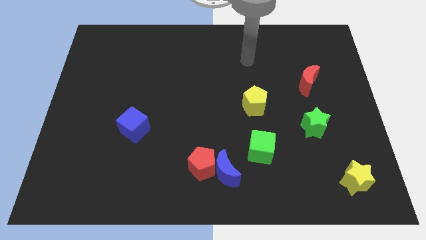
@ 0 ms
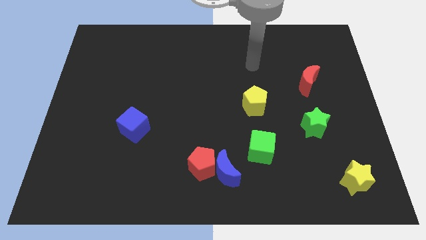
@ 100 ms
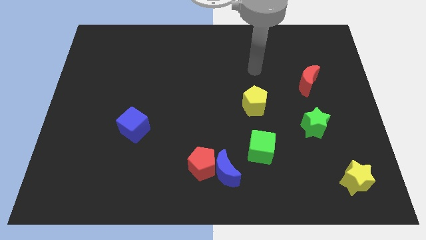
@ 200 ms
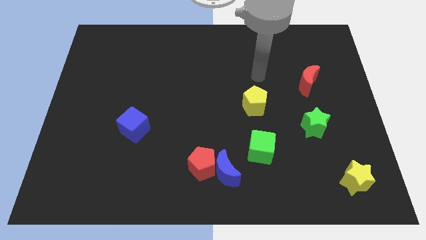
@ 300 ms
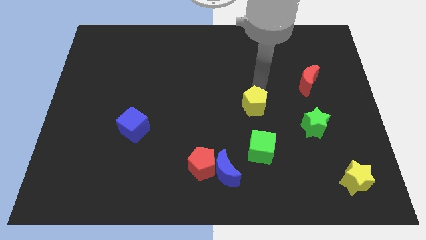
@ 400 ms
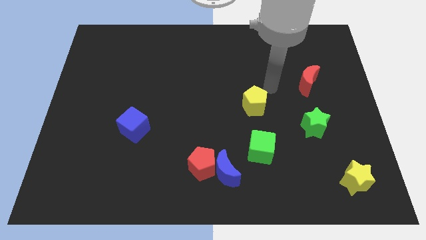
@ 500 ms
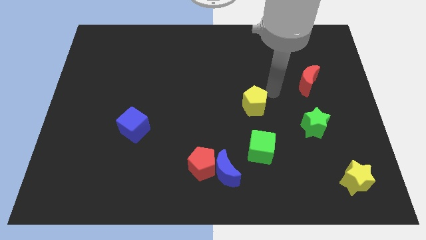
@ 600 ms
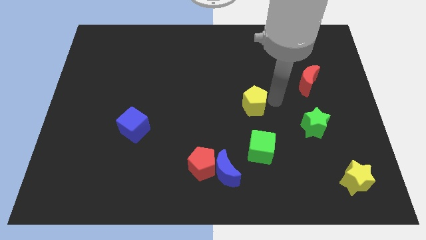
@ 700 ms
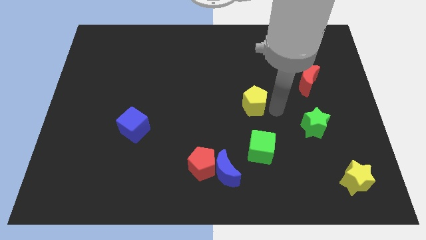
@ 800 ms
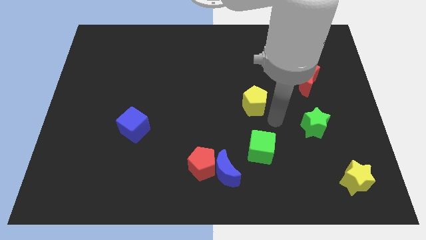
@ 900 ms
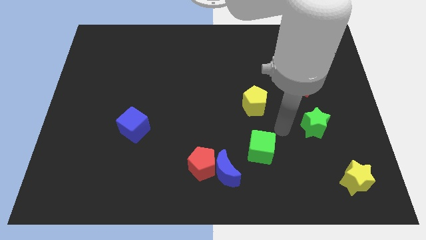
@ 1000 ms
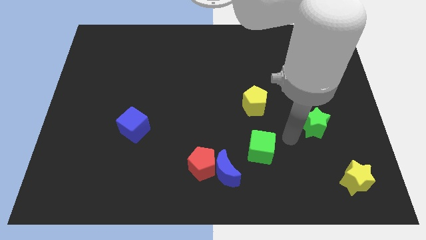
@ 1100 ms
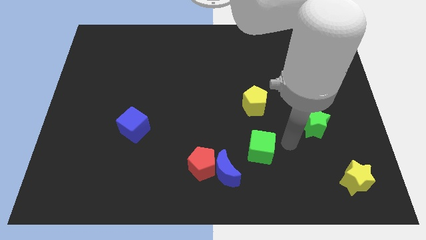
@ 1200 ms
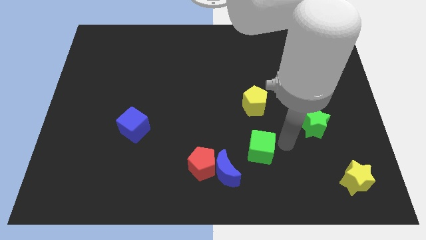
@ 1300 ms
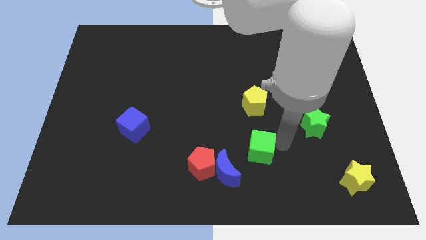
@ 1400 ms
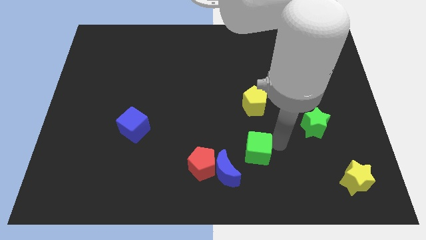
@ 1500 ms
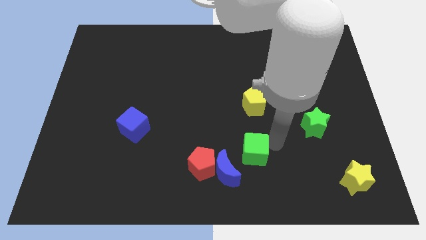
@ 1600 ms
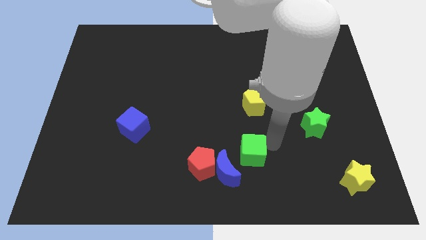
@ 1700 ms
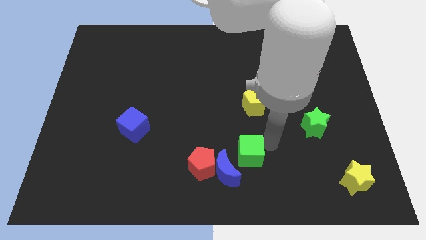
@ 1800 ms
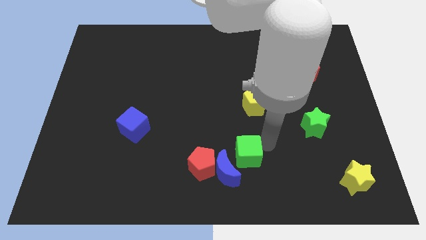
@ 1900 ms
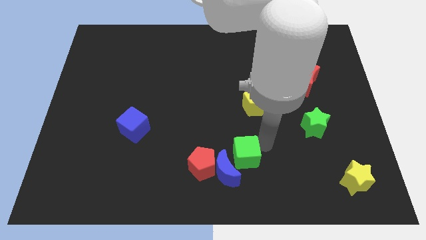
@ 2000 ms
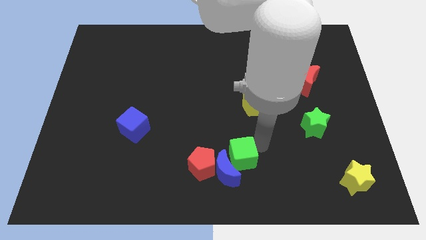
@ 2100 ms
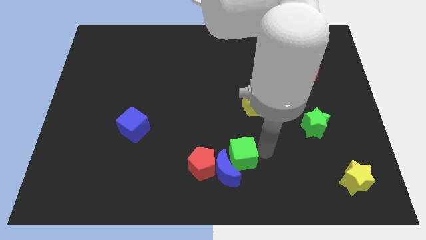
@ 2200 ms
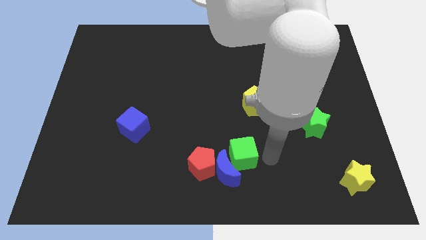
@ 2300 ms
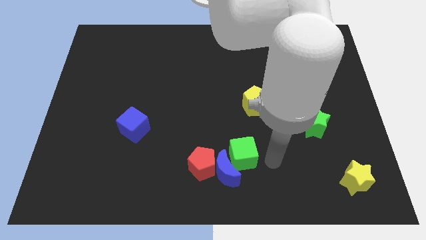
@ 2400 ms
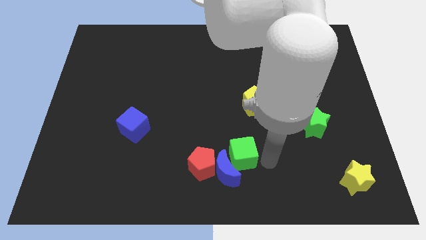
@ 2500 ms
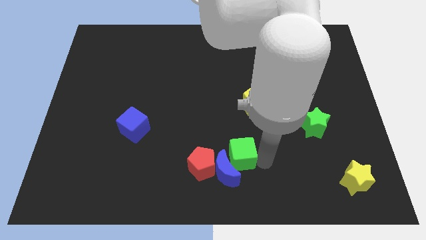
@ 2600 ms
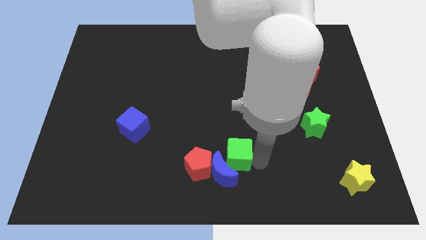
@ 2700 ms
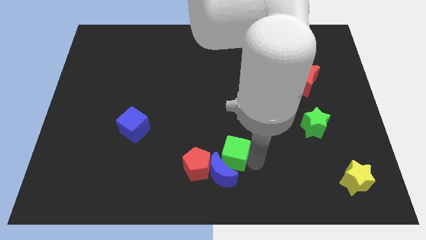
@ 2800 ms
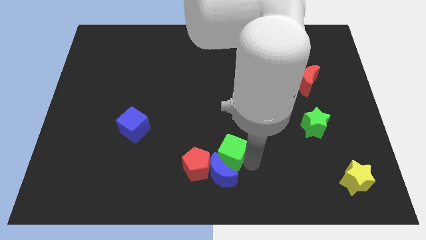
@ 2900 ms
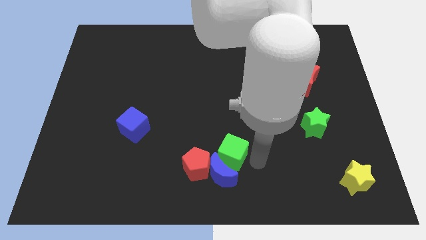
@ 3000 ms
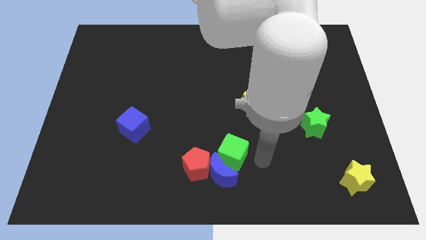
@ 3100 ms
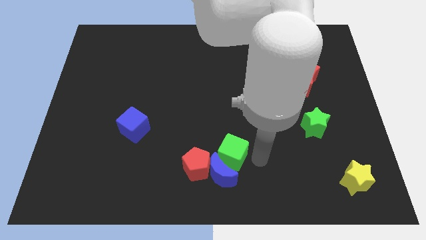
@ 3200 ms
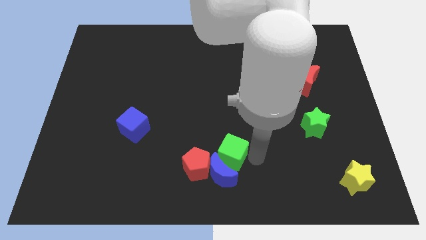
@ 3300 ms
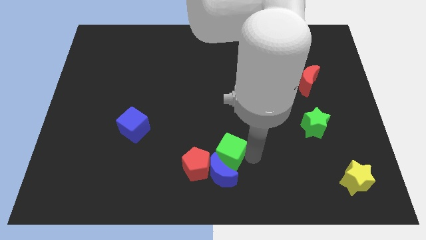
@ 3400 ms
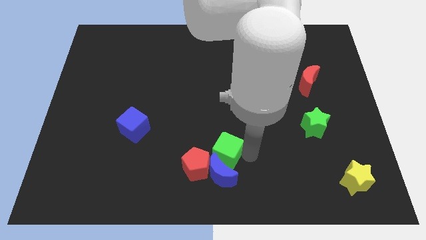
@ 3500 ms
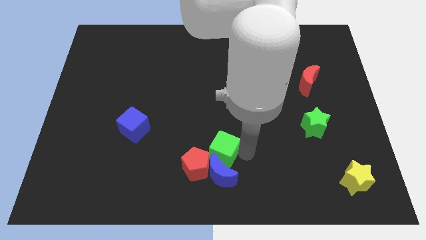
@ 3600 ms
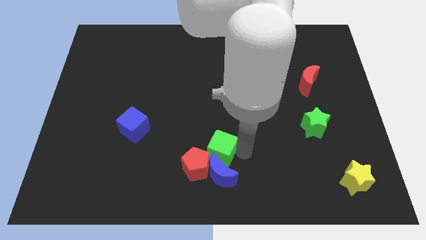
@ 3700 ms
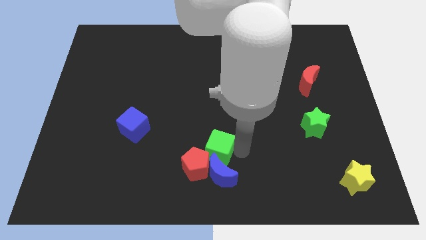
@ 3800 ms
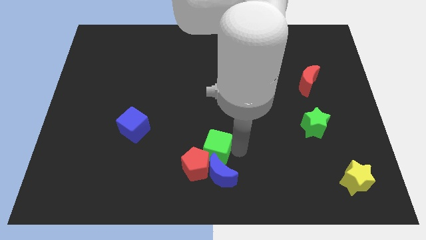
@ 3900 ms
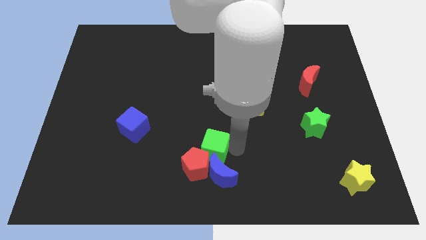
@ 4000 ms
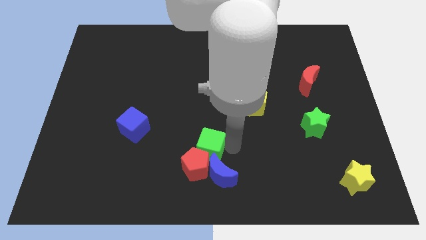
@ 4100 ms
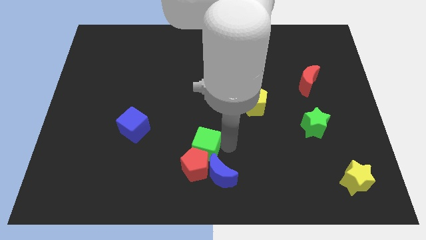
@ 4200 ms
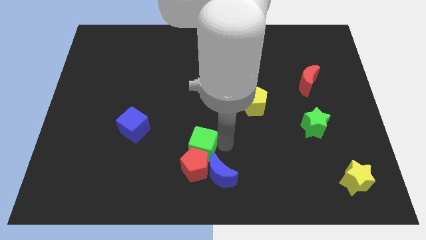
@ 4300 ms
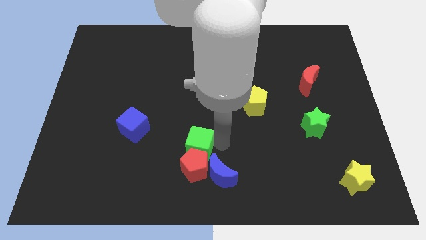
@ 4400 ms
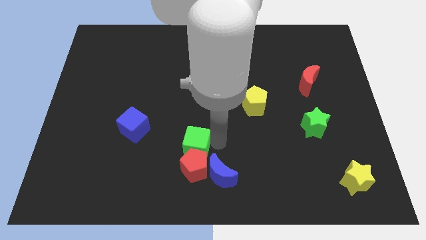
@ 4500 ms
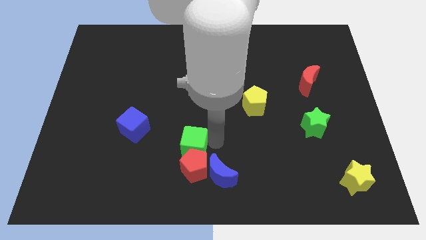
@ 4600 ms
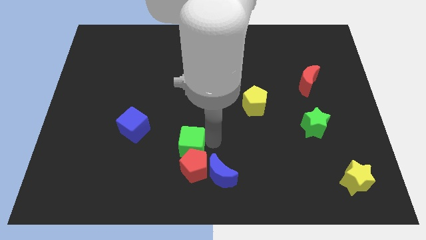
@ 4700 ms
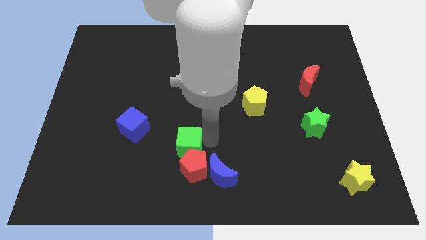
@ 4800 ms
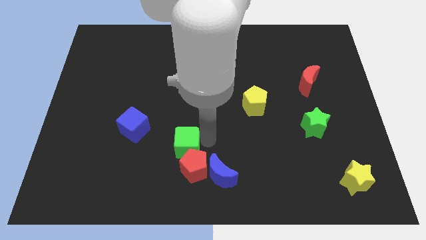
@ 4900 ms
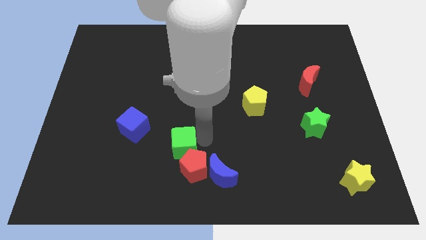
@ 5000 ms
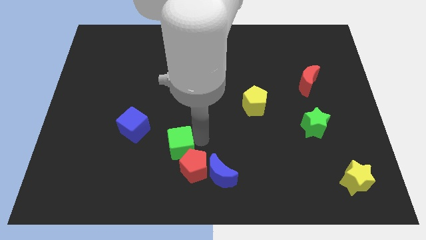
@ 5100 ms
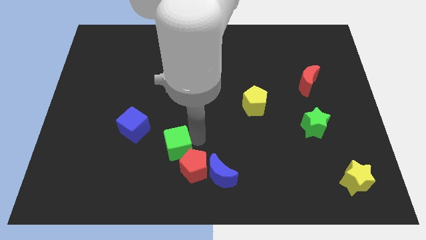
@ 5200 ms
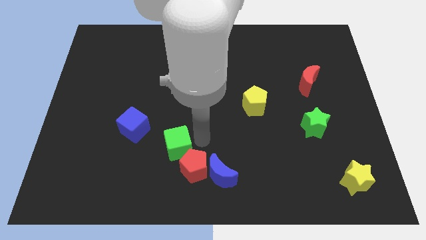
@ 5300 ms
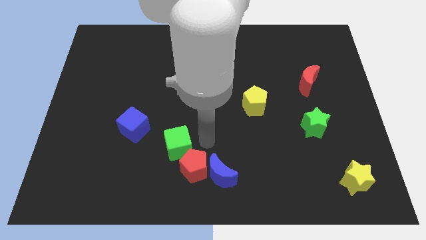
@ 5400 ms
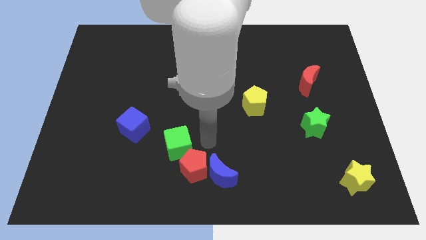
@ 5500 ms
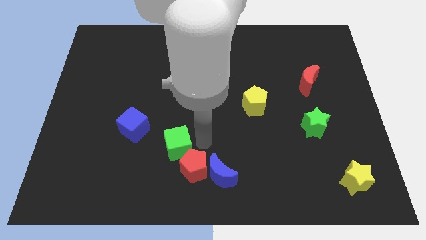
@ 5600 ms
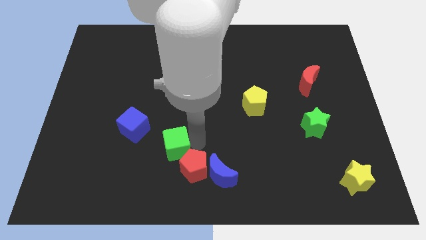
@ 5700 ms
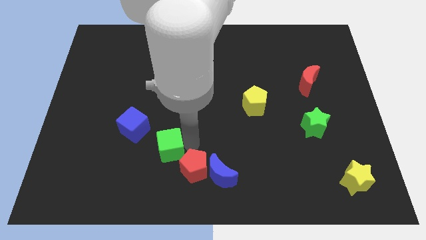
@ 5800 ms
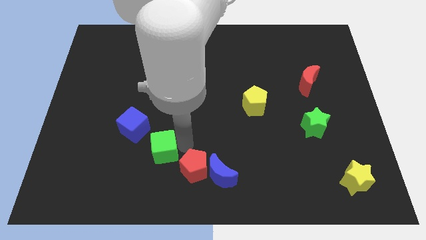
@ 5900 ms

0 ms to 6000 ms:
slide the green cube to the left

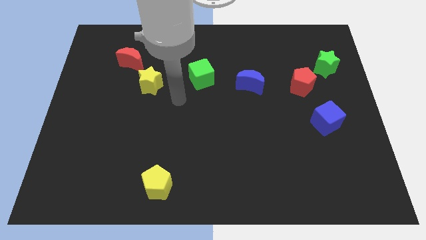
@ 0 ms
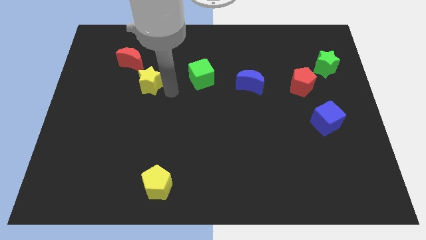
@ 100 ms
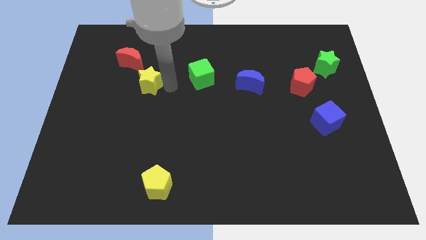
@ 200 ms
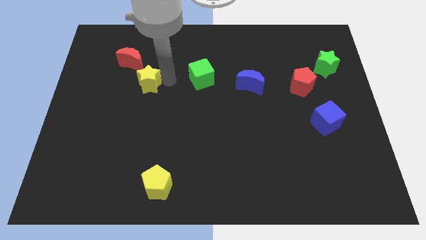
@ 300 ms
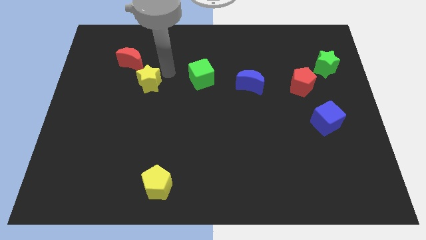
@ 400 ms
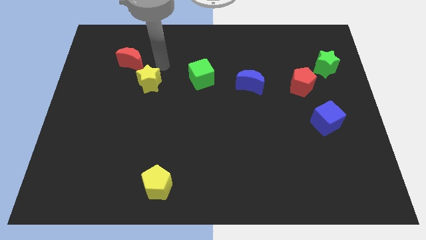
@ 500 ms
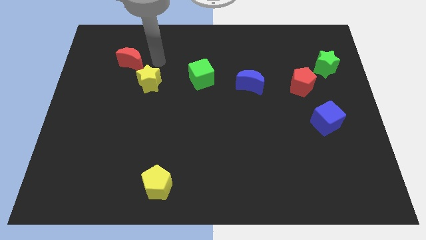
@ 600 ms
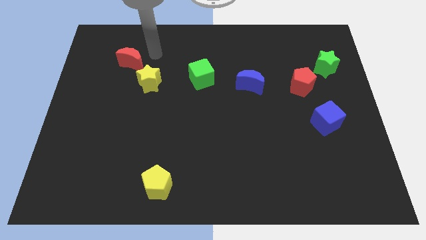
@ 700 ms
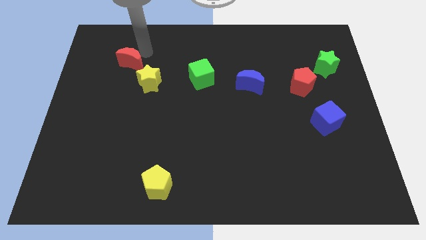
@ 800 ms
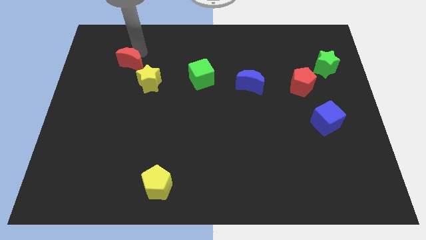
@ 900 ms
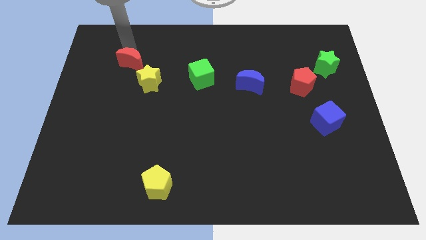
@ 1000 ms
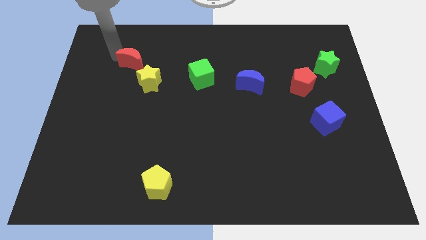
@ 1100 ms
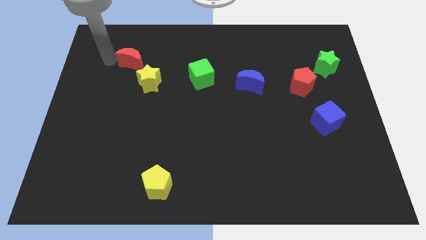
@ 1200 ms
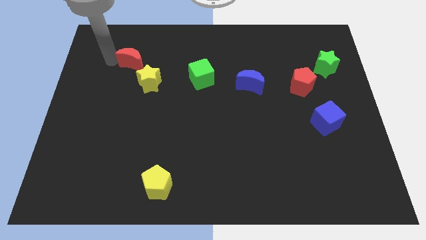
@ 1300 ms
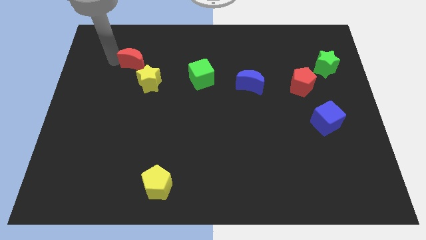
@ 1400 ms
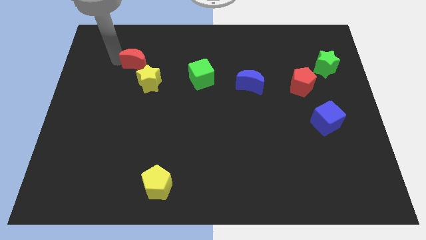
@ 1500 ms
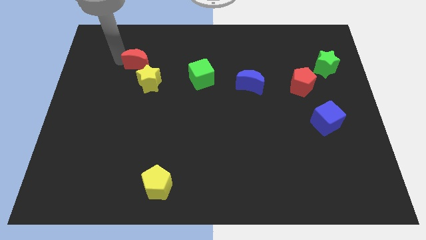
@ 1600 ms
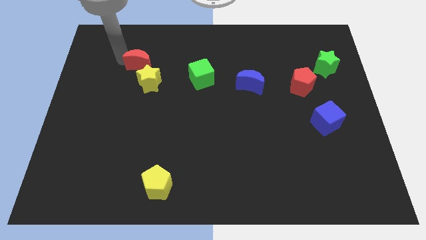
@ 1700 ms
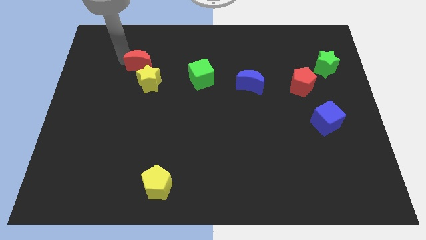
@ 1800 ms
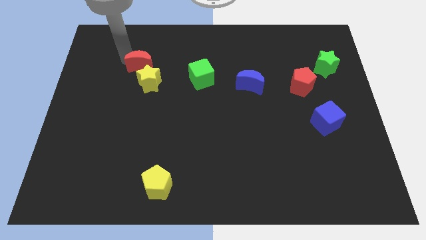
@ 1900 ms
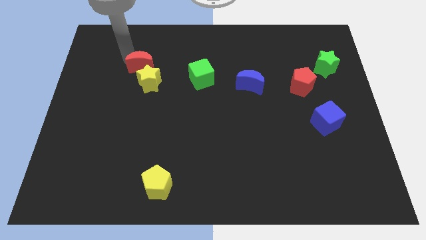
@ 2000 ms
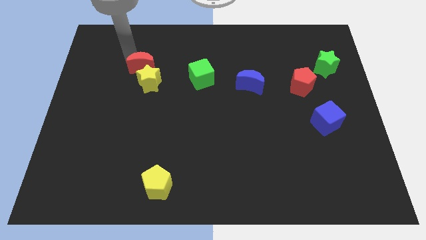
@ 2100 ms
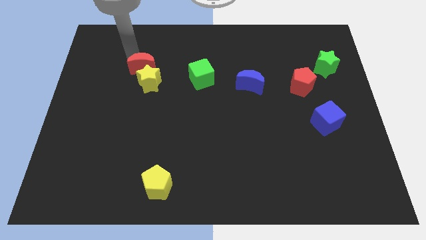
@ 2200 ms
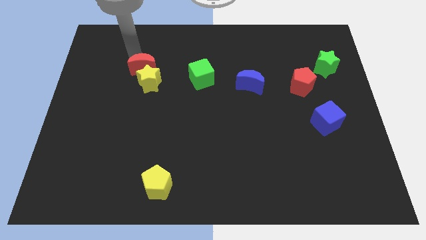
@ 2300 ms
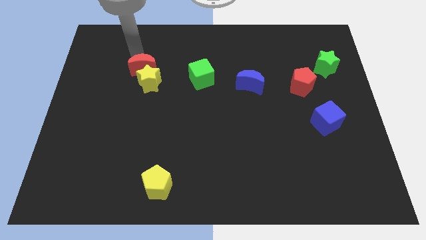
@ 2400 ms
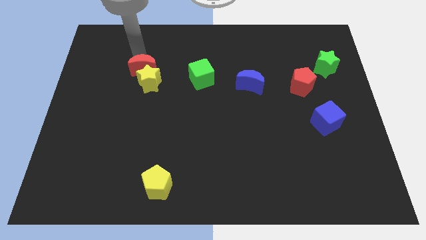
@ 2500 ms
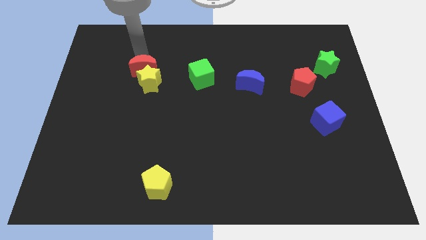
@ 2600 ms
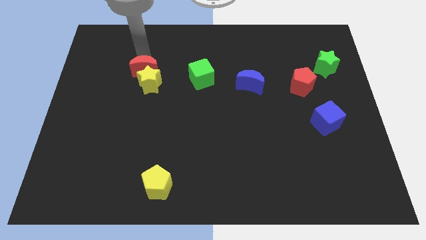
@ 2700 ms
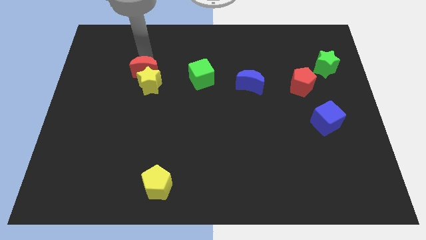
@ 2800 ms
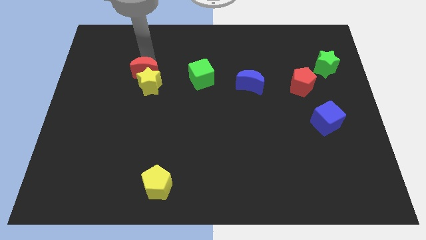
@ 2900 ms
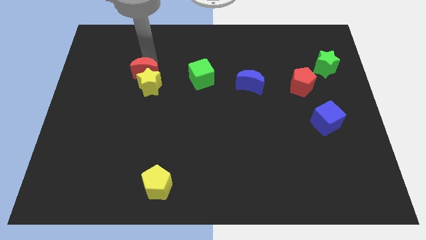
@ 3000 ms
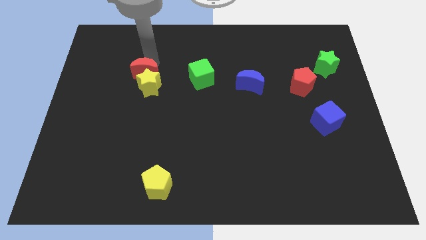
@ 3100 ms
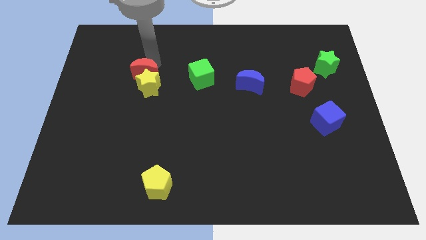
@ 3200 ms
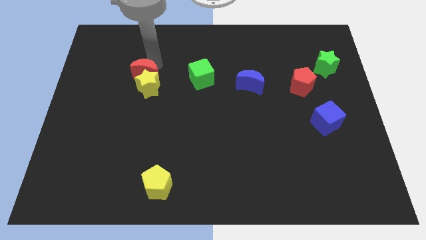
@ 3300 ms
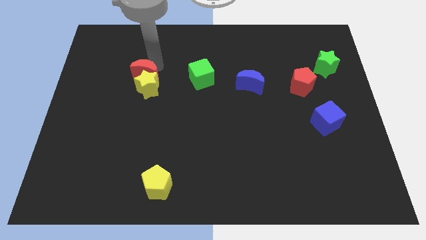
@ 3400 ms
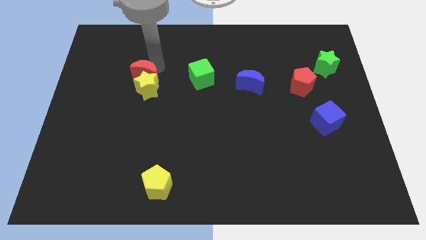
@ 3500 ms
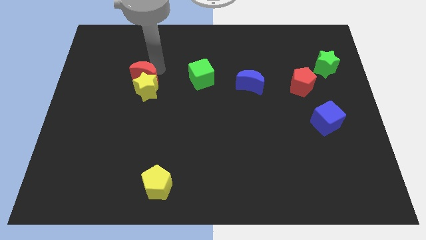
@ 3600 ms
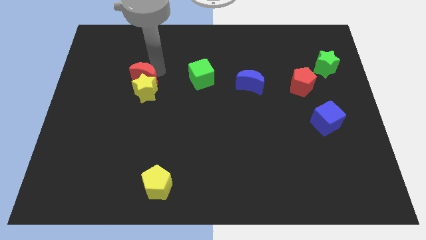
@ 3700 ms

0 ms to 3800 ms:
move the red moon down and then to the right slightly
